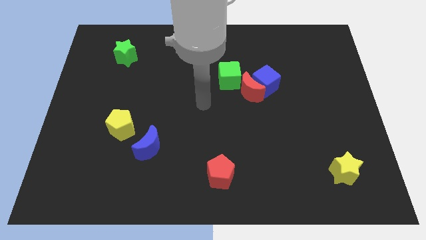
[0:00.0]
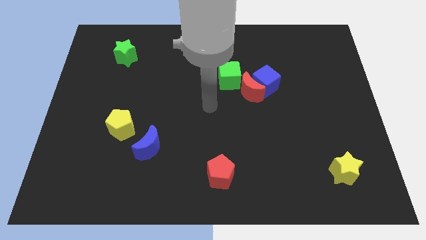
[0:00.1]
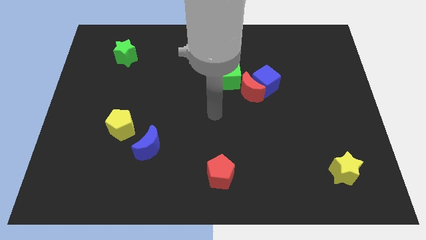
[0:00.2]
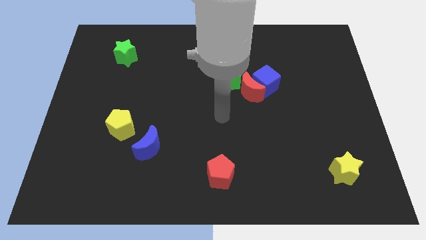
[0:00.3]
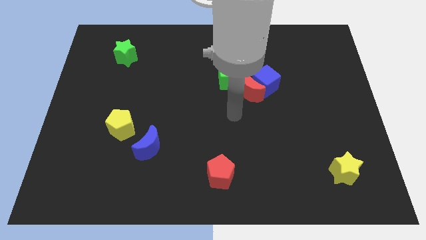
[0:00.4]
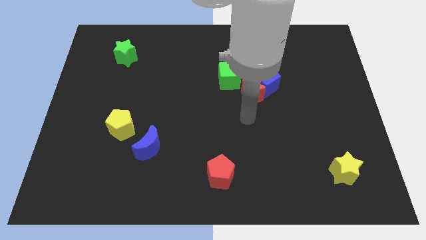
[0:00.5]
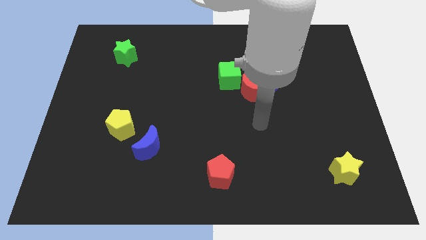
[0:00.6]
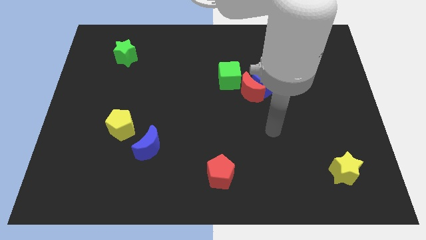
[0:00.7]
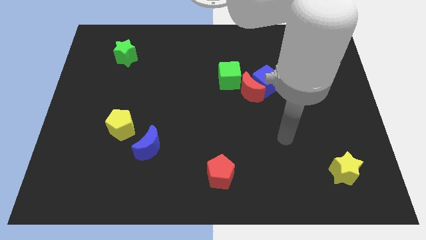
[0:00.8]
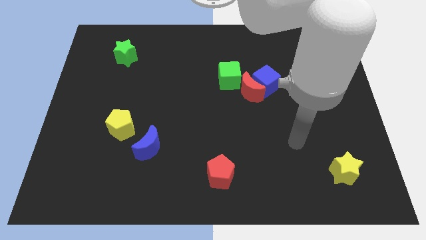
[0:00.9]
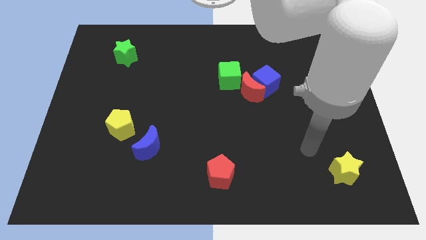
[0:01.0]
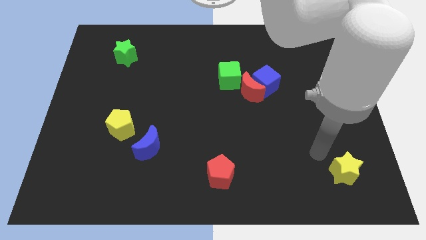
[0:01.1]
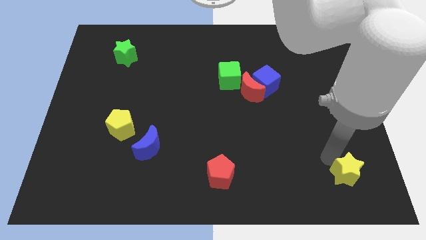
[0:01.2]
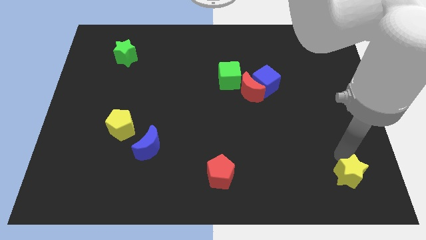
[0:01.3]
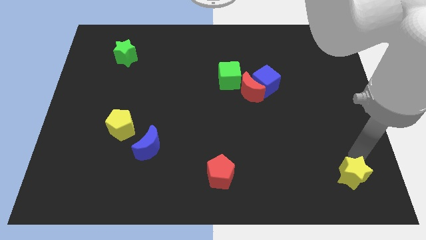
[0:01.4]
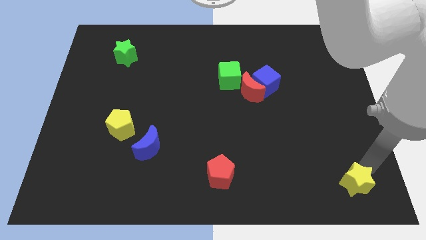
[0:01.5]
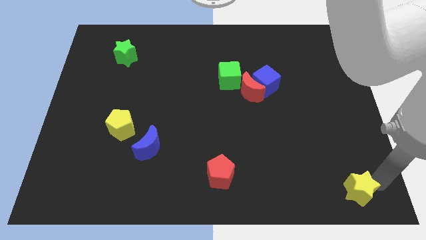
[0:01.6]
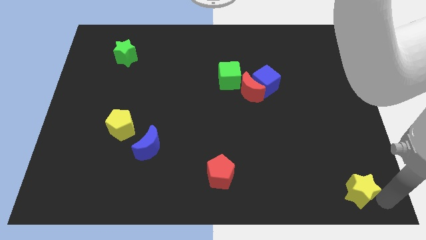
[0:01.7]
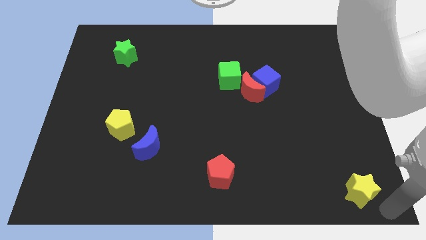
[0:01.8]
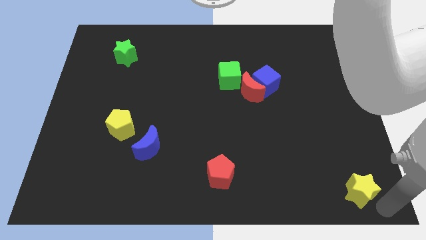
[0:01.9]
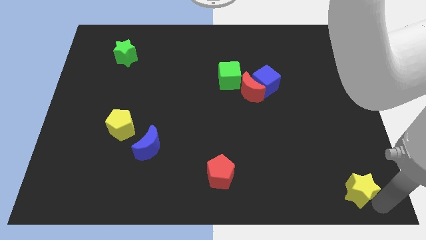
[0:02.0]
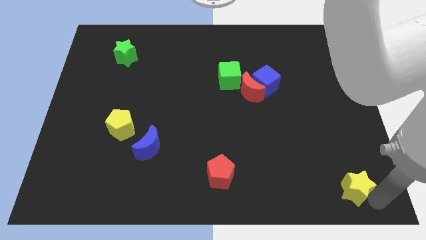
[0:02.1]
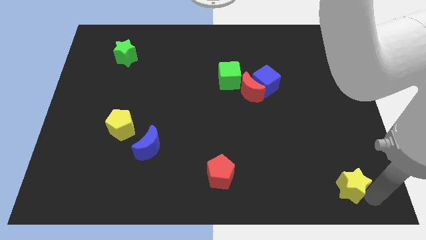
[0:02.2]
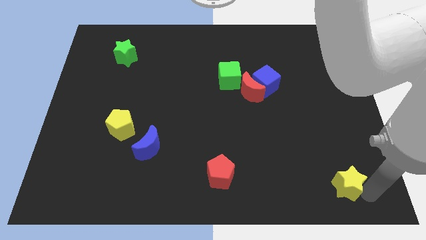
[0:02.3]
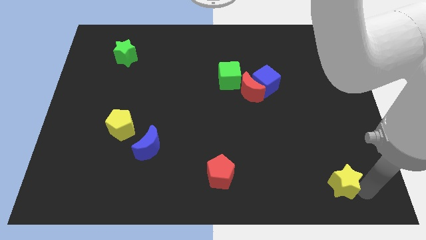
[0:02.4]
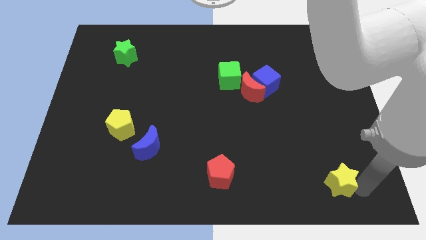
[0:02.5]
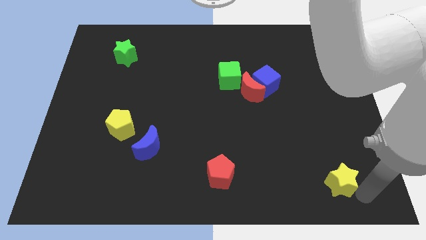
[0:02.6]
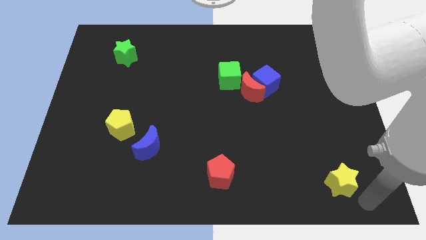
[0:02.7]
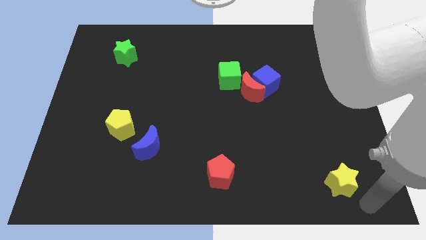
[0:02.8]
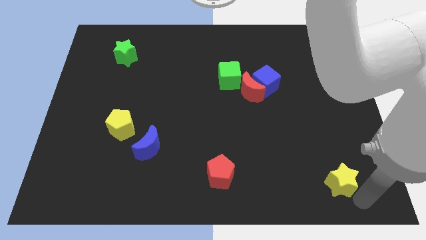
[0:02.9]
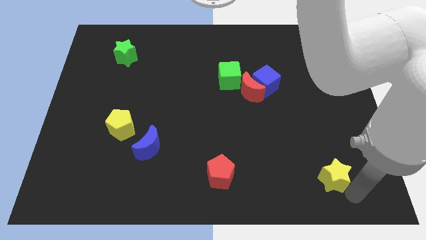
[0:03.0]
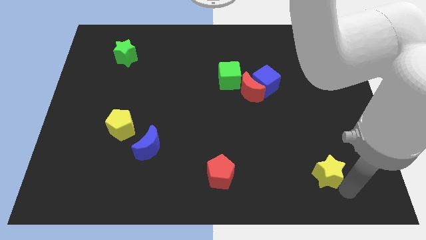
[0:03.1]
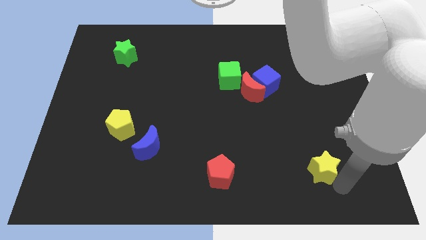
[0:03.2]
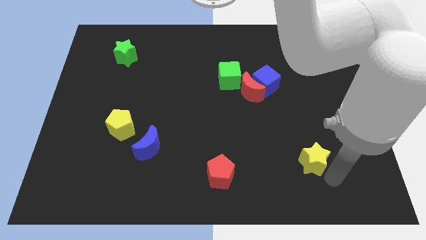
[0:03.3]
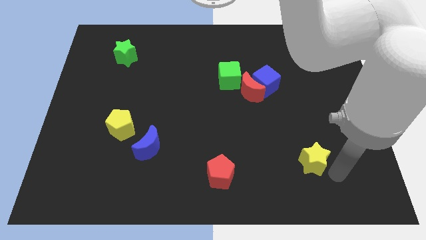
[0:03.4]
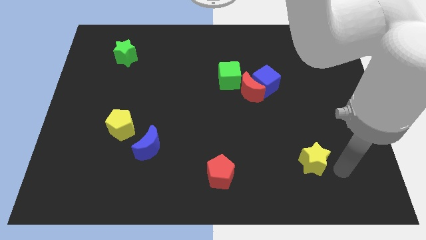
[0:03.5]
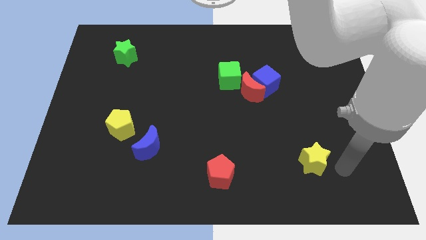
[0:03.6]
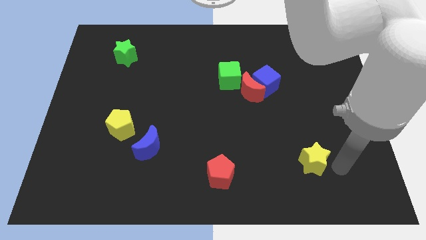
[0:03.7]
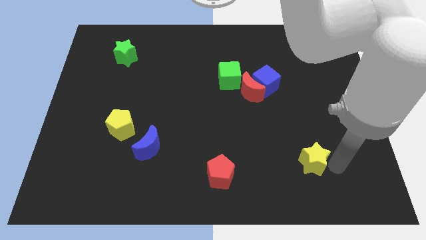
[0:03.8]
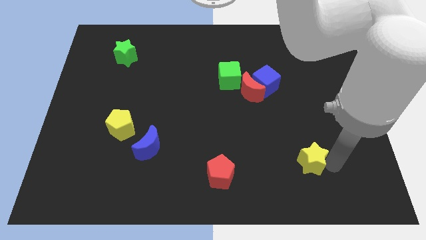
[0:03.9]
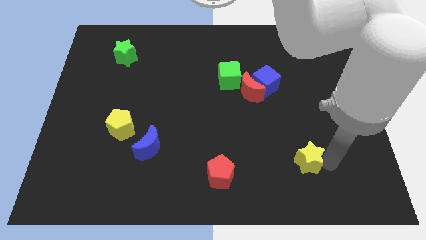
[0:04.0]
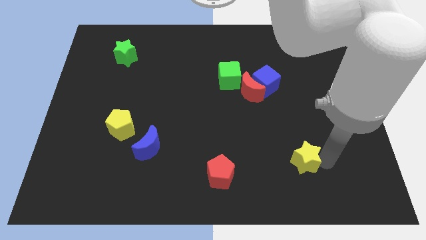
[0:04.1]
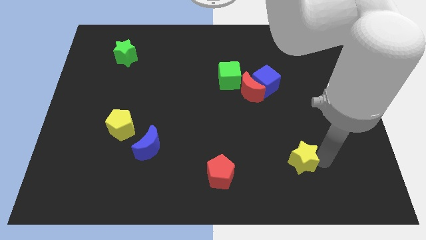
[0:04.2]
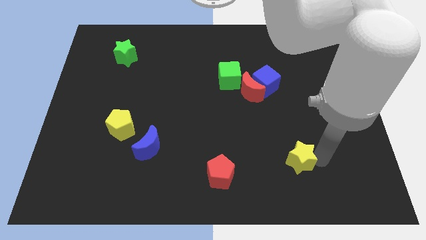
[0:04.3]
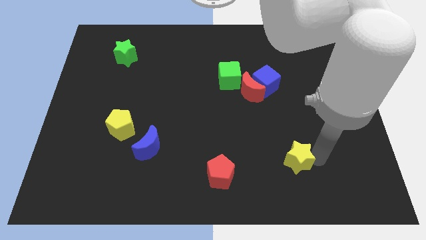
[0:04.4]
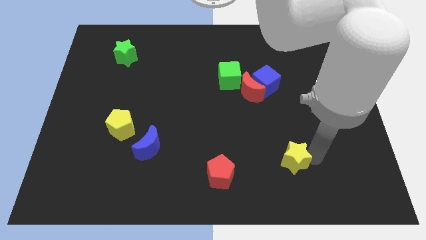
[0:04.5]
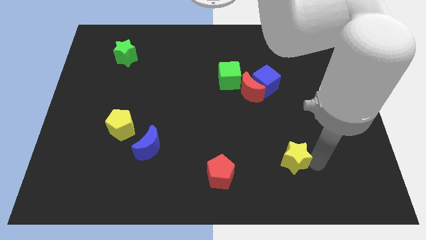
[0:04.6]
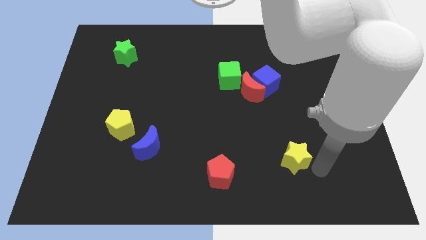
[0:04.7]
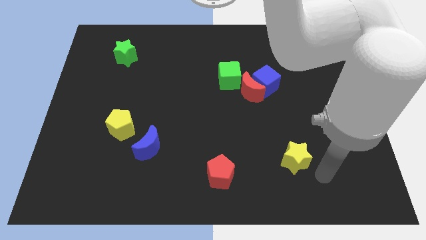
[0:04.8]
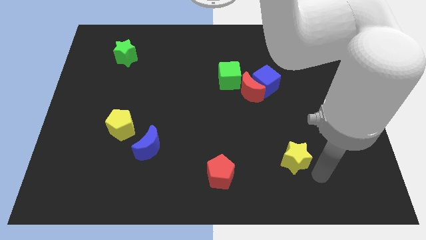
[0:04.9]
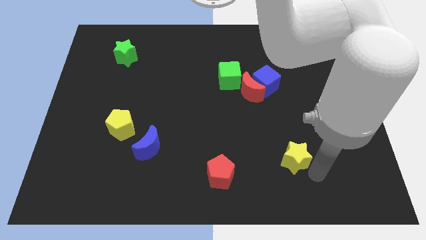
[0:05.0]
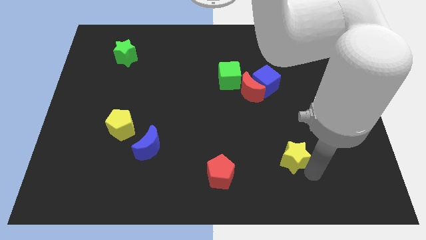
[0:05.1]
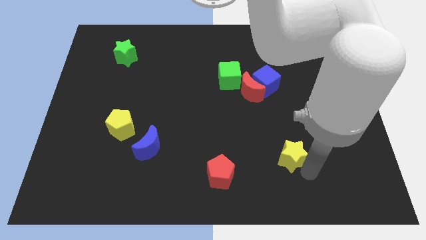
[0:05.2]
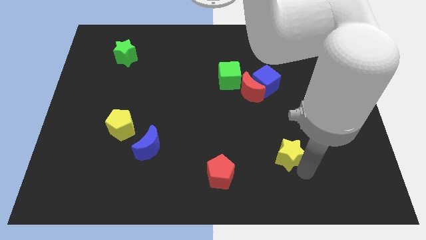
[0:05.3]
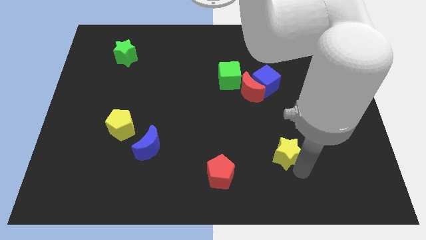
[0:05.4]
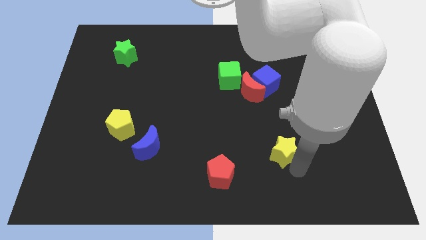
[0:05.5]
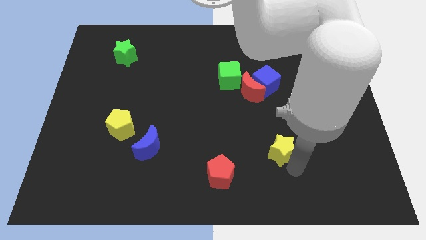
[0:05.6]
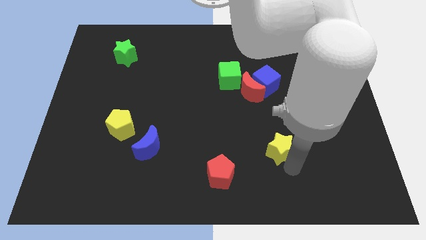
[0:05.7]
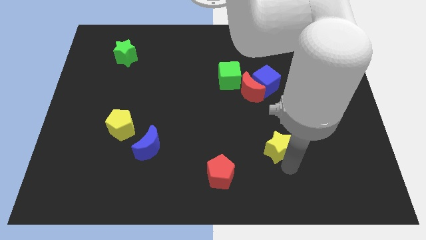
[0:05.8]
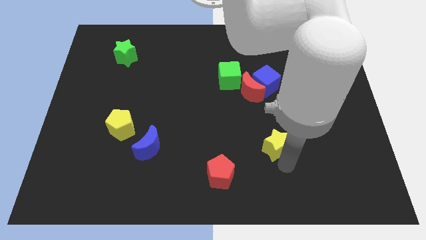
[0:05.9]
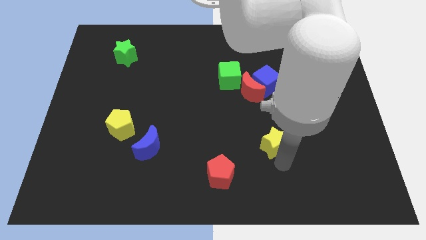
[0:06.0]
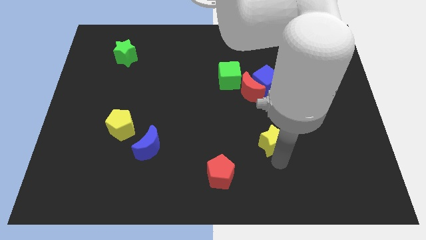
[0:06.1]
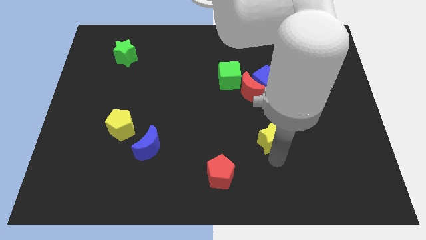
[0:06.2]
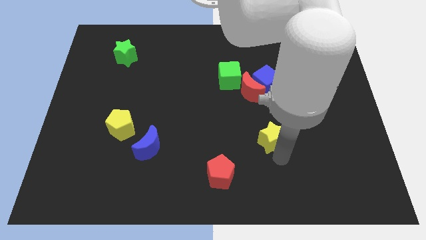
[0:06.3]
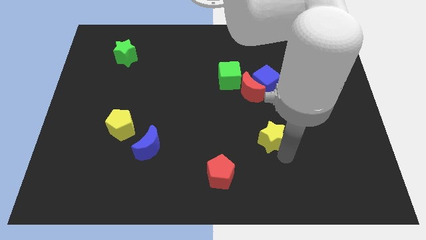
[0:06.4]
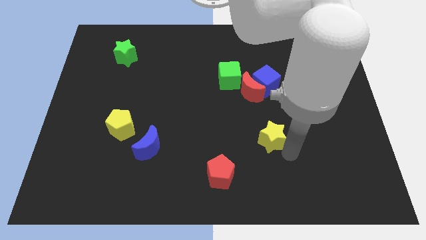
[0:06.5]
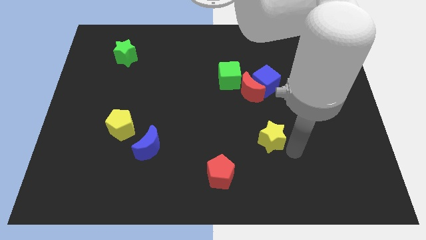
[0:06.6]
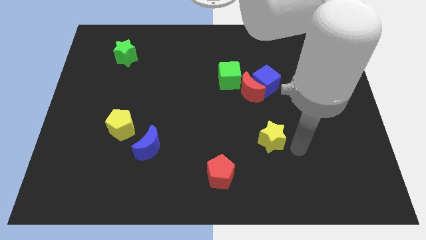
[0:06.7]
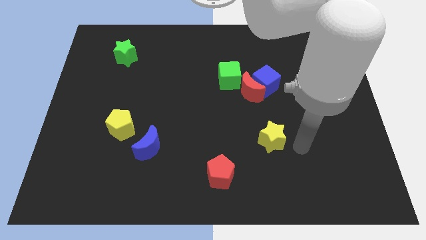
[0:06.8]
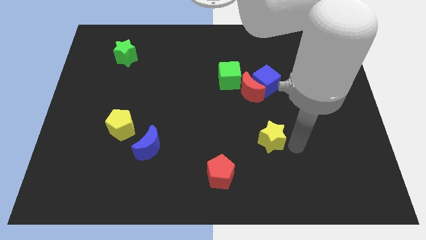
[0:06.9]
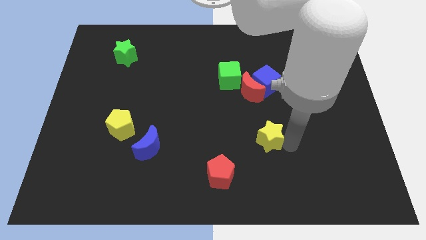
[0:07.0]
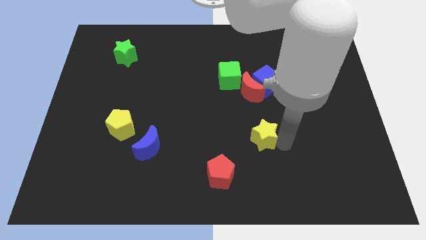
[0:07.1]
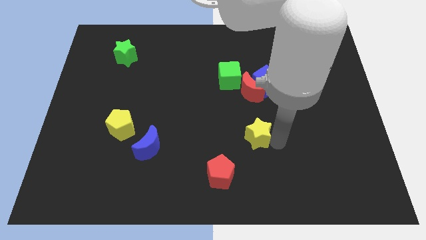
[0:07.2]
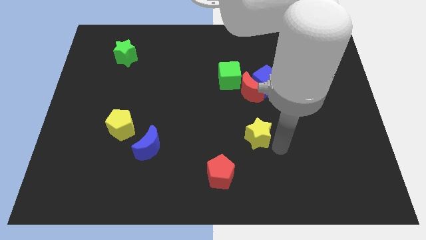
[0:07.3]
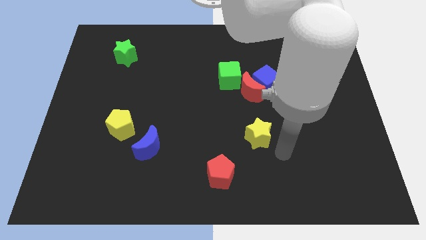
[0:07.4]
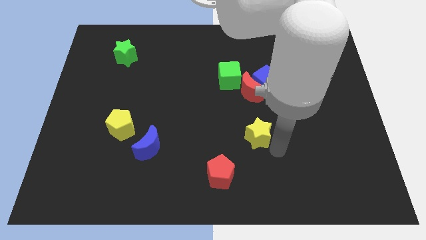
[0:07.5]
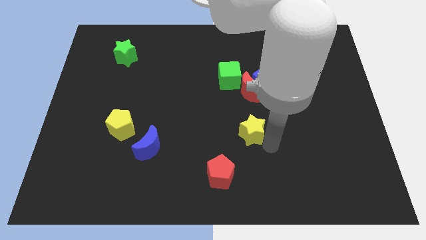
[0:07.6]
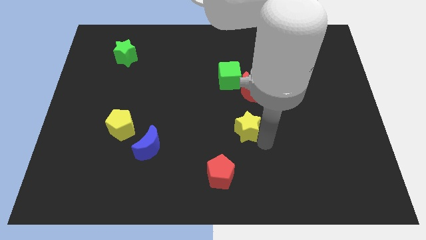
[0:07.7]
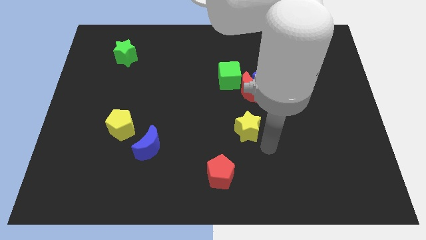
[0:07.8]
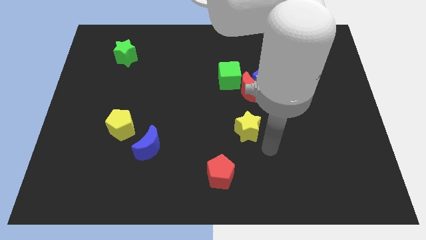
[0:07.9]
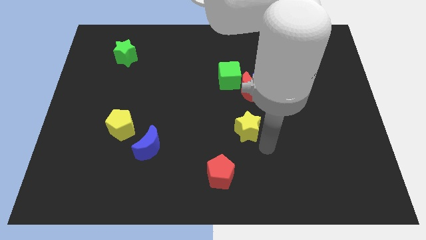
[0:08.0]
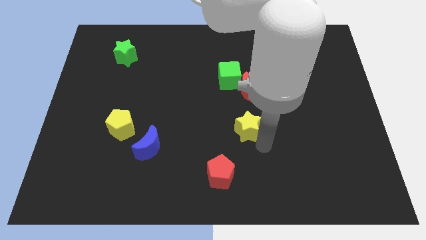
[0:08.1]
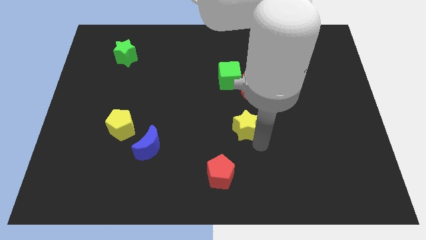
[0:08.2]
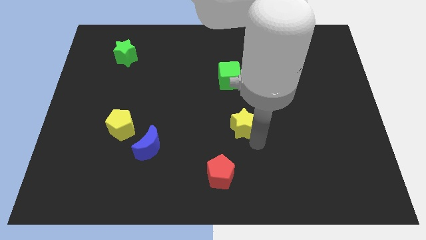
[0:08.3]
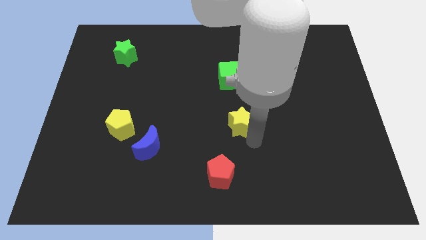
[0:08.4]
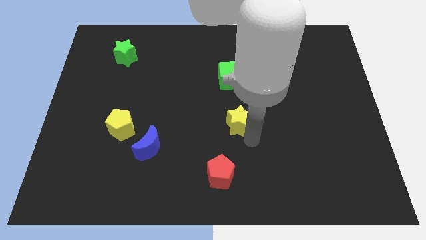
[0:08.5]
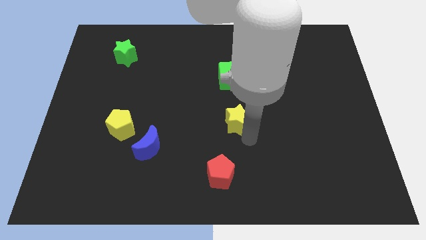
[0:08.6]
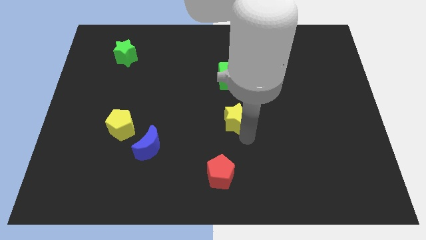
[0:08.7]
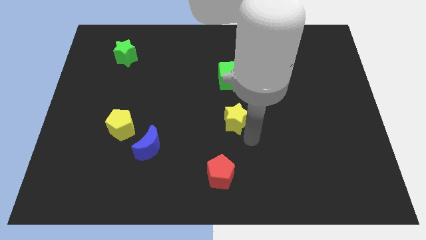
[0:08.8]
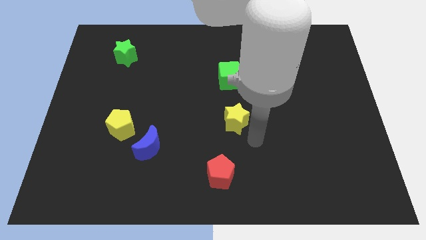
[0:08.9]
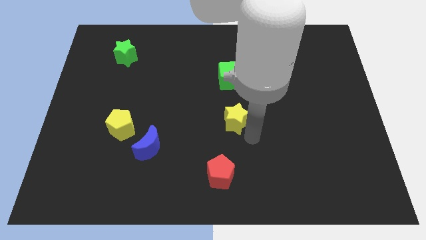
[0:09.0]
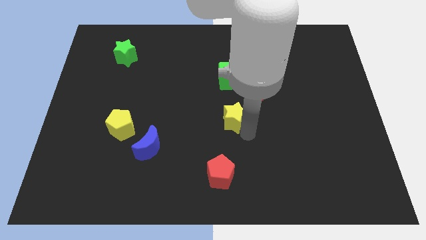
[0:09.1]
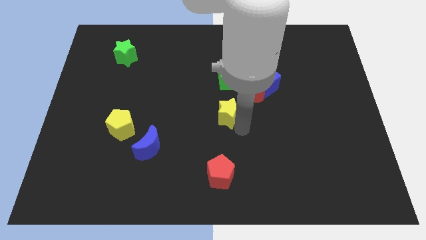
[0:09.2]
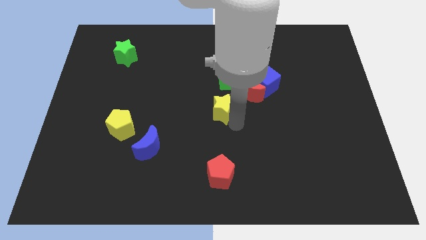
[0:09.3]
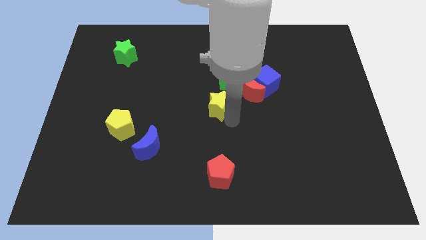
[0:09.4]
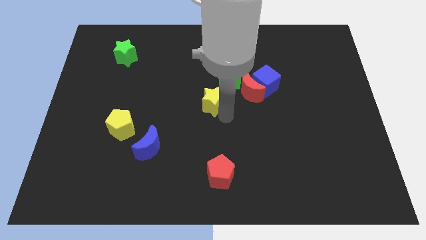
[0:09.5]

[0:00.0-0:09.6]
put the yellow star left of the red moon
